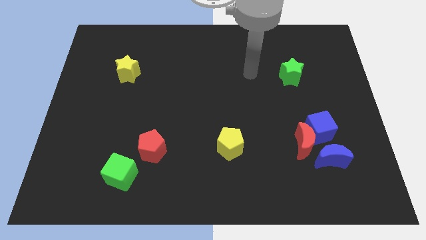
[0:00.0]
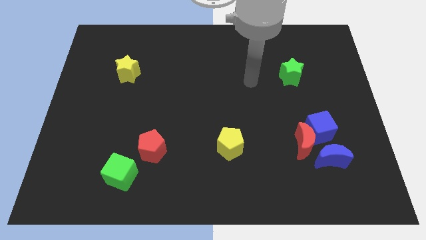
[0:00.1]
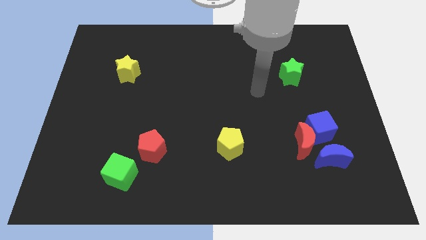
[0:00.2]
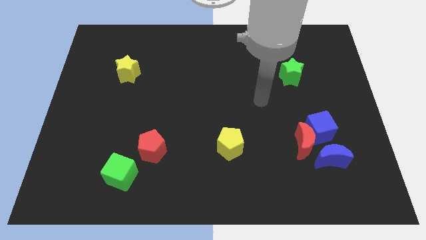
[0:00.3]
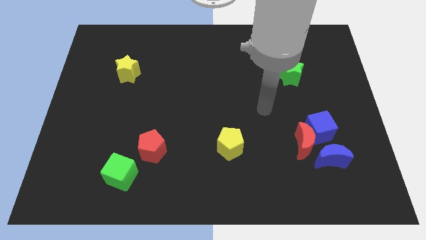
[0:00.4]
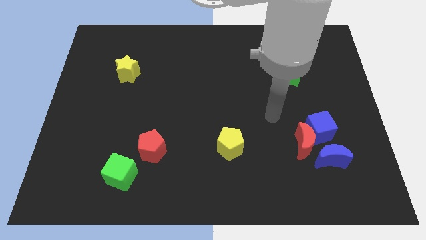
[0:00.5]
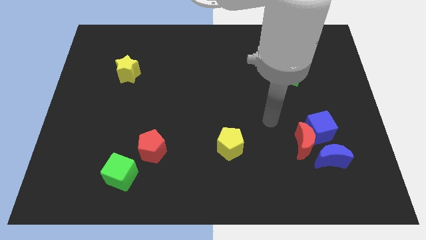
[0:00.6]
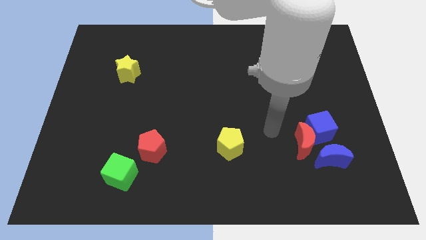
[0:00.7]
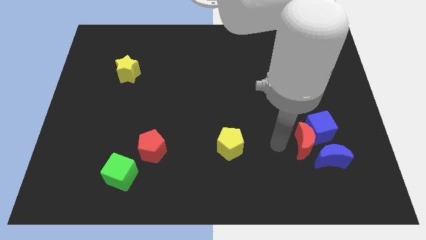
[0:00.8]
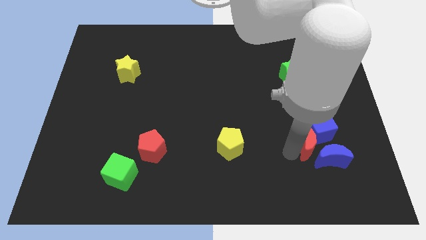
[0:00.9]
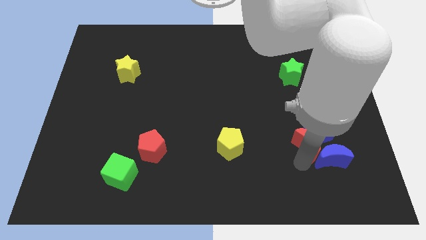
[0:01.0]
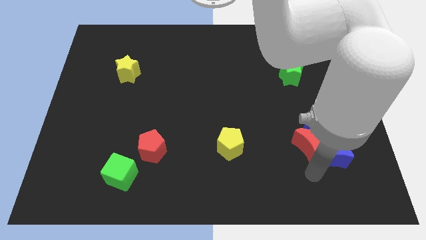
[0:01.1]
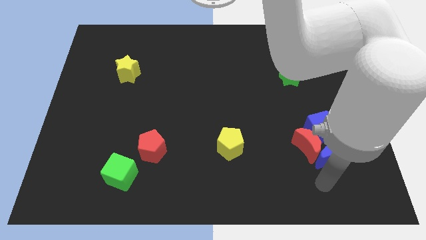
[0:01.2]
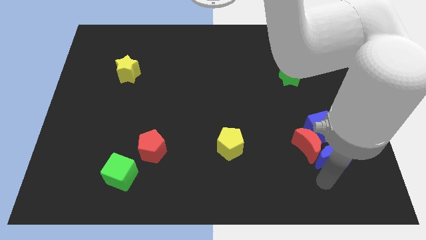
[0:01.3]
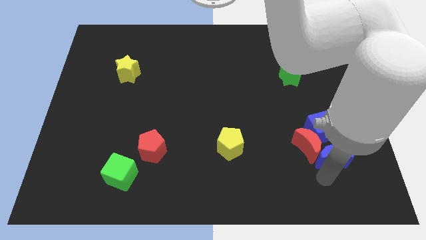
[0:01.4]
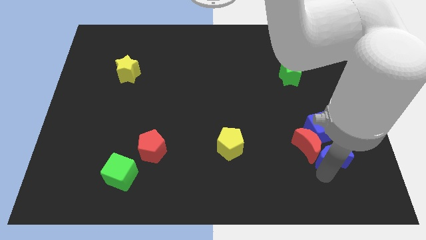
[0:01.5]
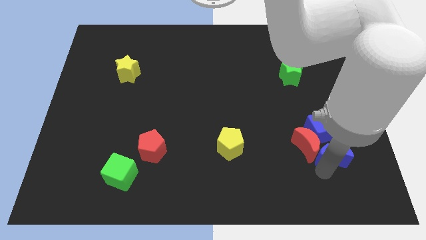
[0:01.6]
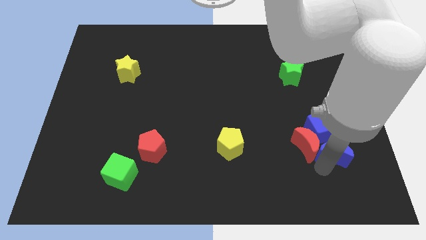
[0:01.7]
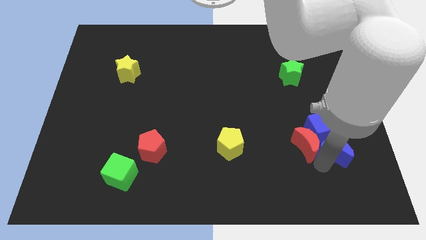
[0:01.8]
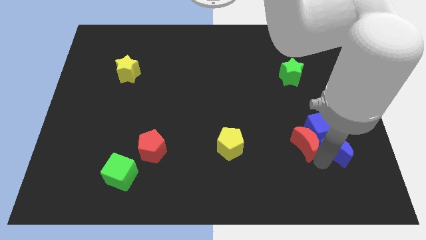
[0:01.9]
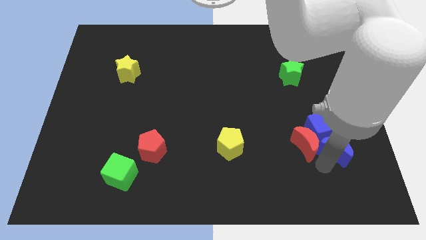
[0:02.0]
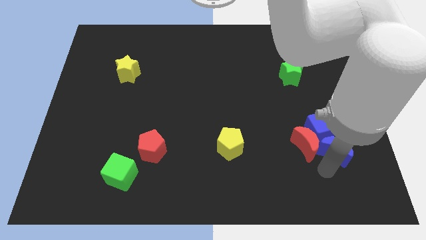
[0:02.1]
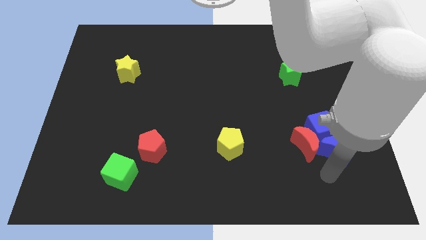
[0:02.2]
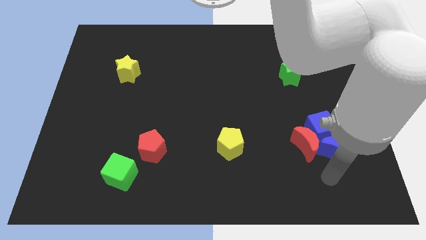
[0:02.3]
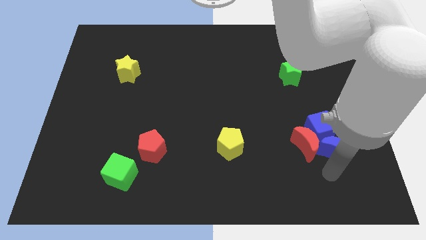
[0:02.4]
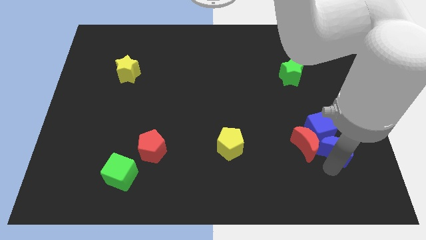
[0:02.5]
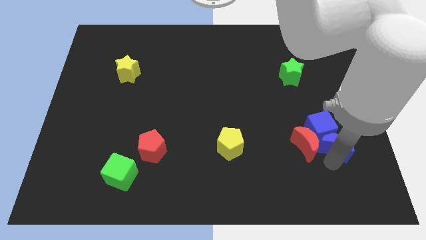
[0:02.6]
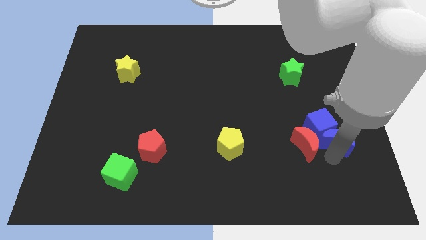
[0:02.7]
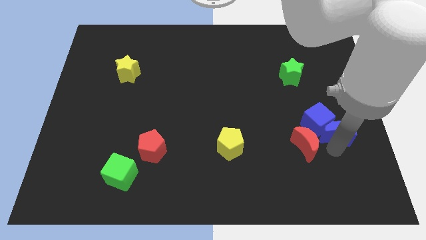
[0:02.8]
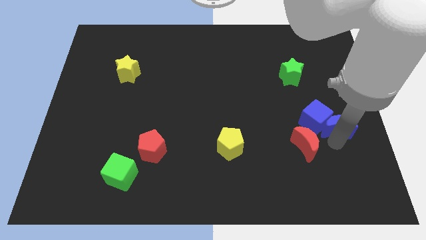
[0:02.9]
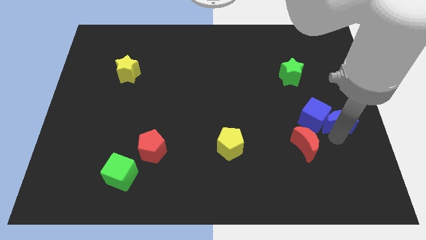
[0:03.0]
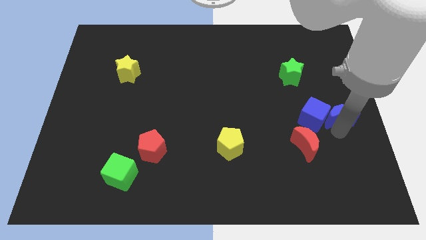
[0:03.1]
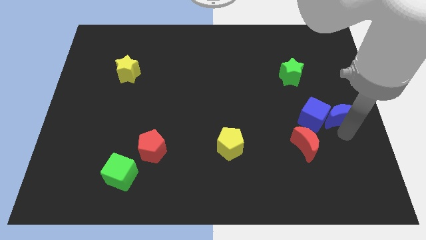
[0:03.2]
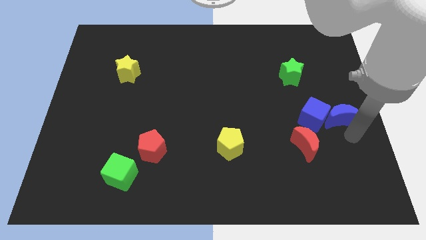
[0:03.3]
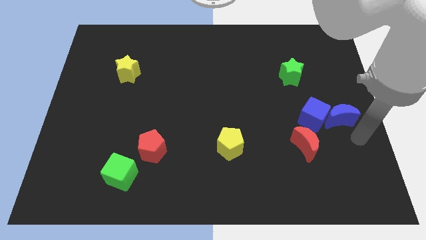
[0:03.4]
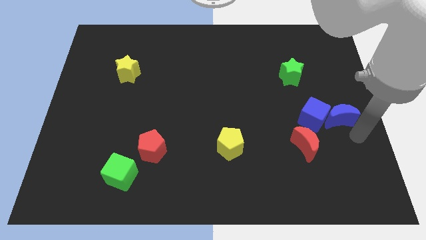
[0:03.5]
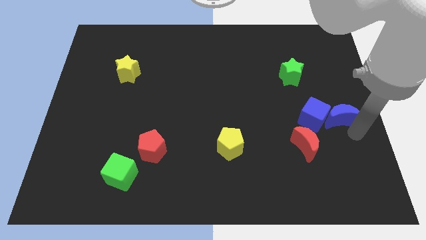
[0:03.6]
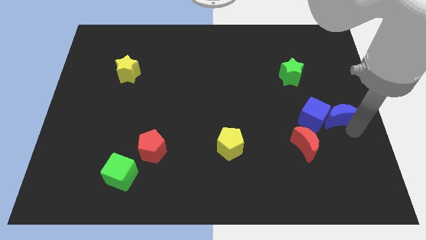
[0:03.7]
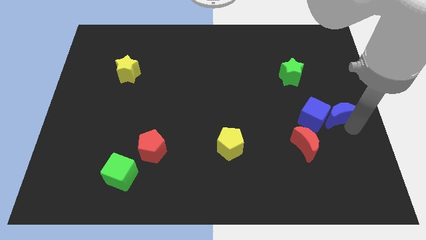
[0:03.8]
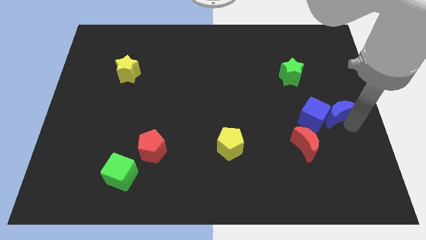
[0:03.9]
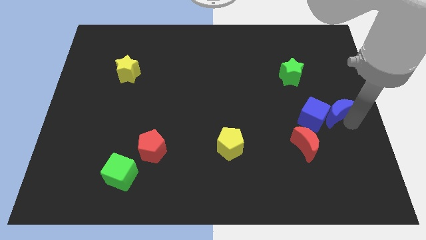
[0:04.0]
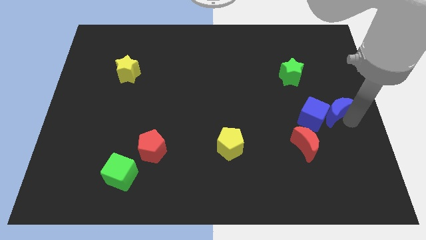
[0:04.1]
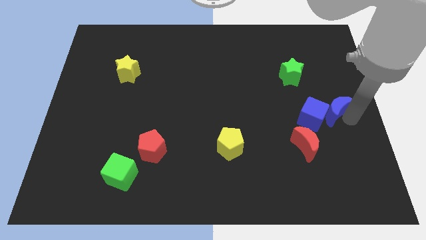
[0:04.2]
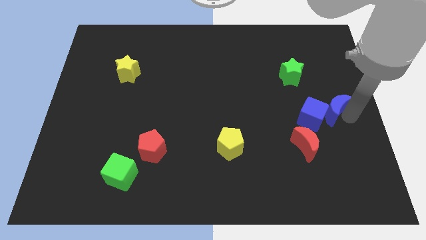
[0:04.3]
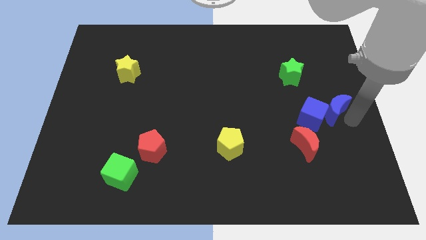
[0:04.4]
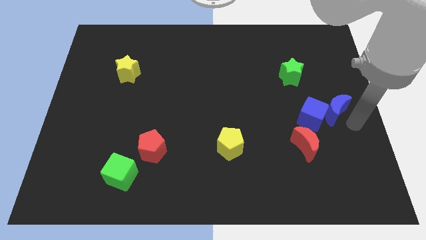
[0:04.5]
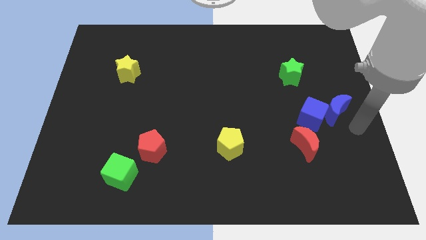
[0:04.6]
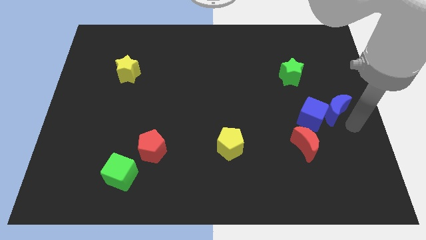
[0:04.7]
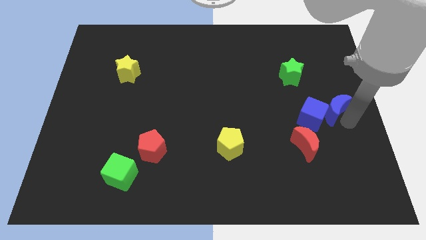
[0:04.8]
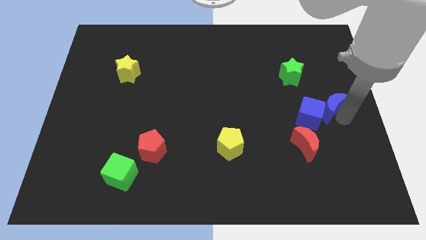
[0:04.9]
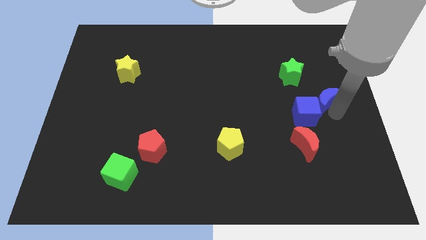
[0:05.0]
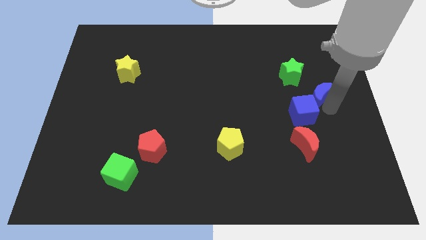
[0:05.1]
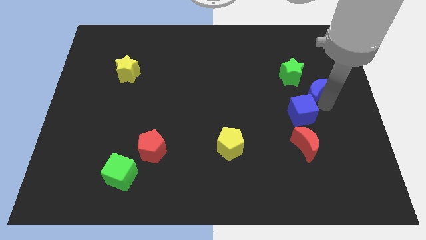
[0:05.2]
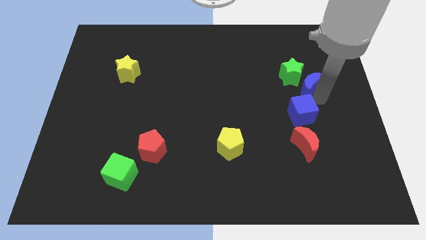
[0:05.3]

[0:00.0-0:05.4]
slide the blue moon close to the green star

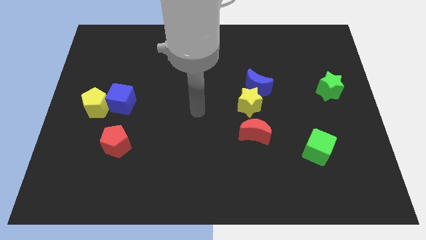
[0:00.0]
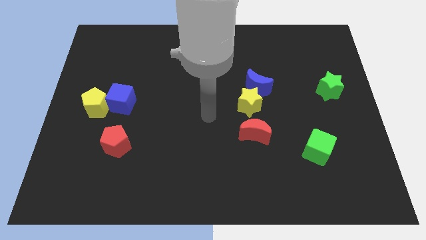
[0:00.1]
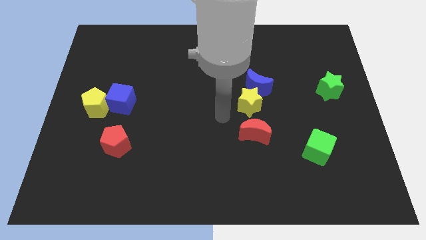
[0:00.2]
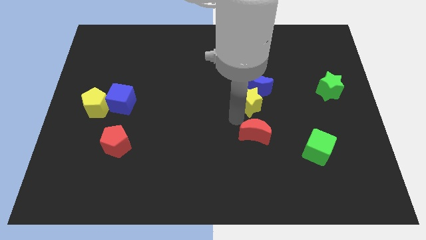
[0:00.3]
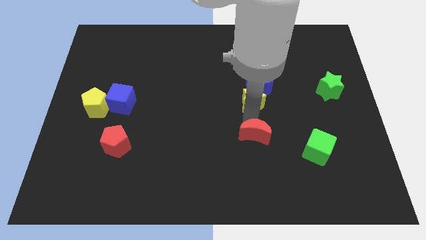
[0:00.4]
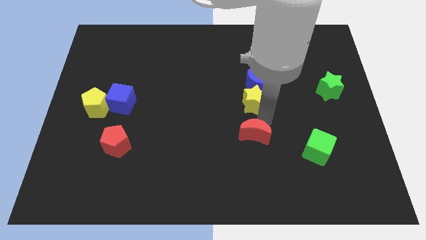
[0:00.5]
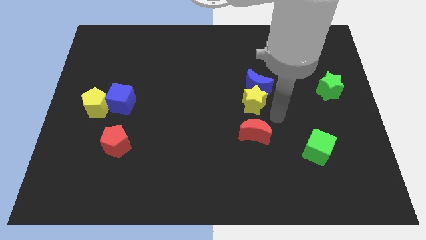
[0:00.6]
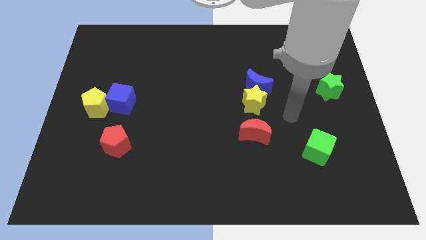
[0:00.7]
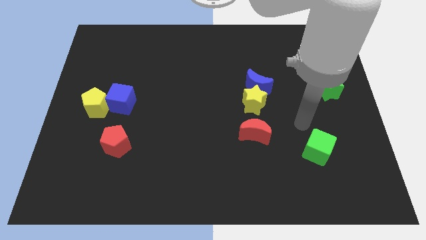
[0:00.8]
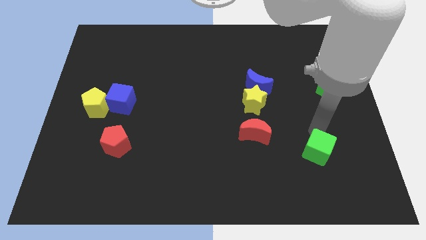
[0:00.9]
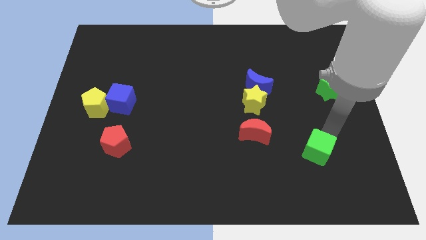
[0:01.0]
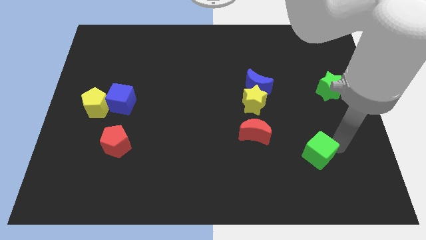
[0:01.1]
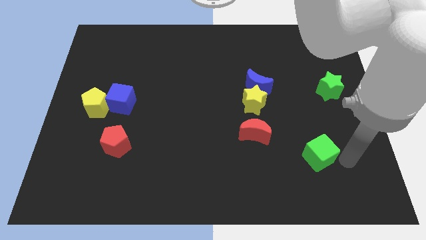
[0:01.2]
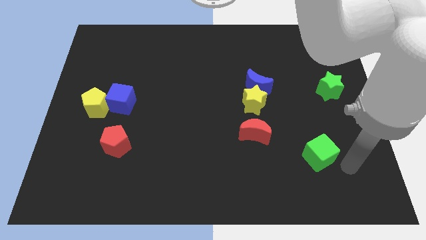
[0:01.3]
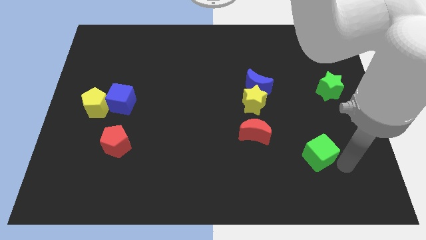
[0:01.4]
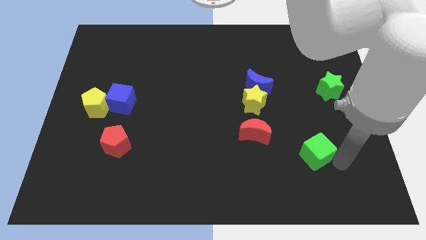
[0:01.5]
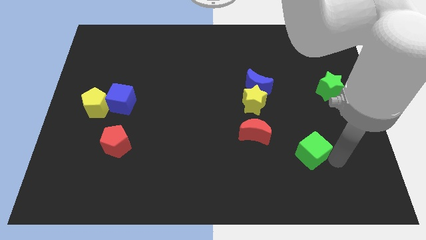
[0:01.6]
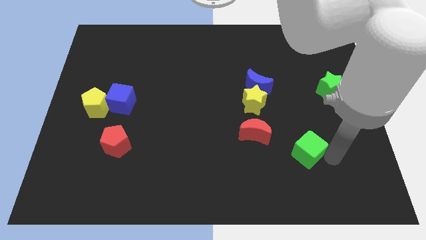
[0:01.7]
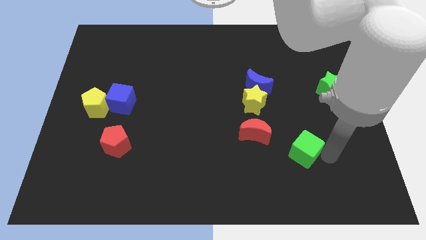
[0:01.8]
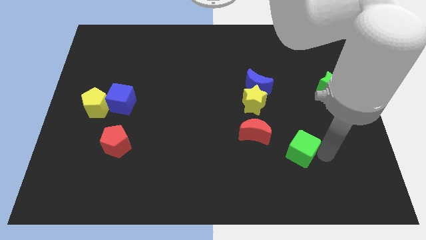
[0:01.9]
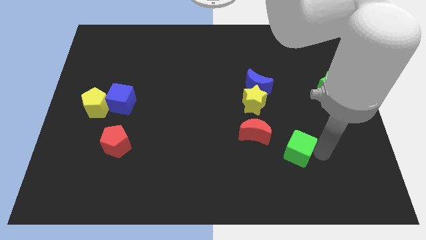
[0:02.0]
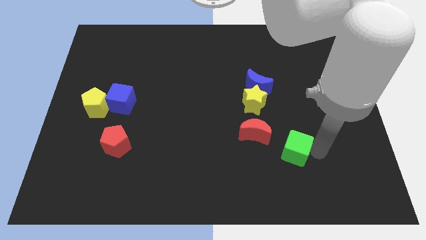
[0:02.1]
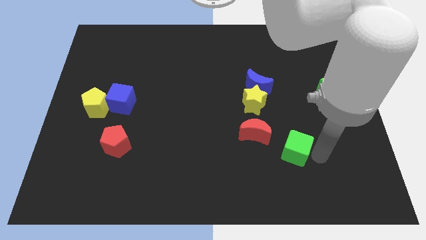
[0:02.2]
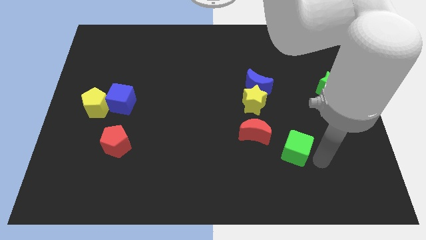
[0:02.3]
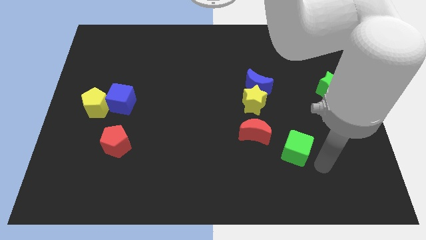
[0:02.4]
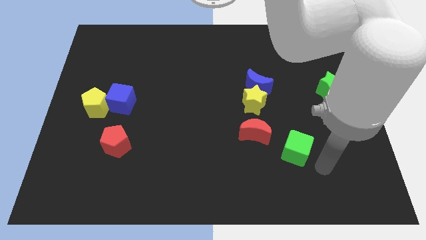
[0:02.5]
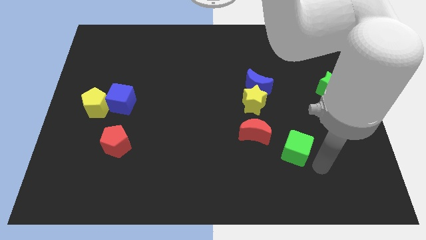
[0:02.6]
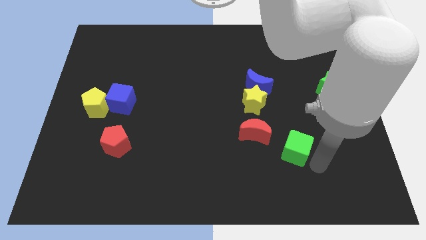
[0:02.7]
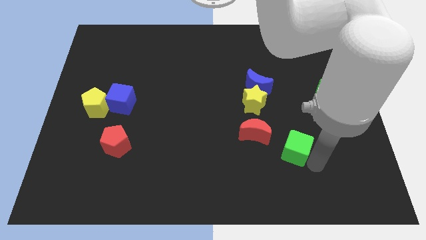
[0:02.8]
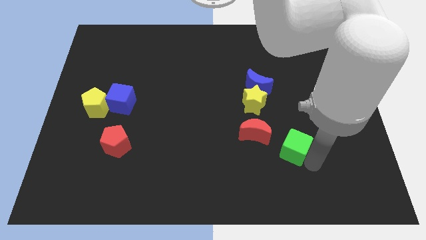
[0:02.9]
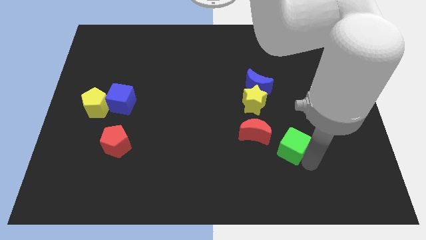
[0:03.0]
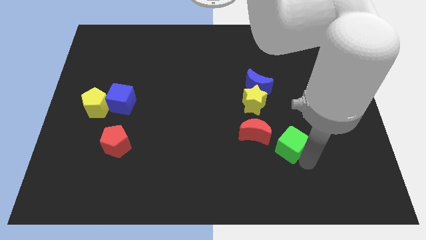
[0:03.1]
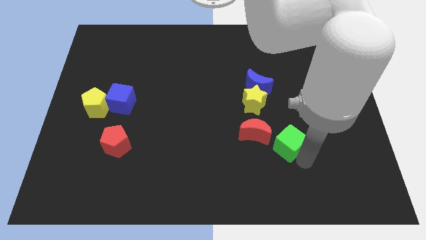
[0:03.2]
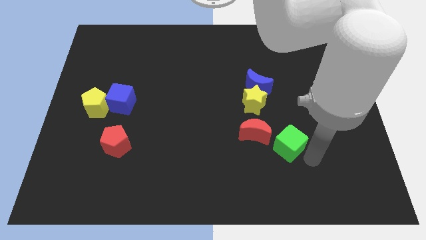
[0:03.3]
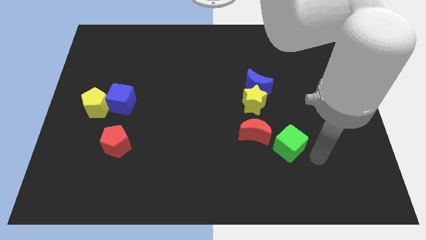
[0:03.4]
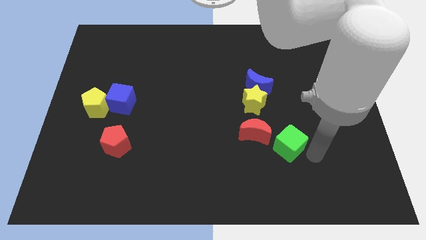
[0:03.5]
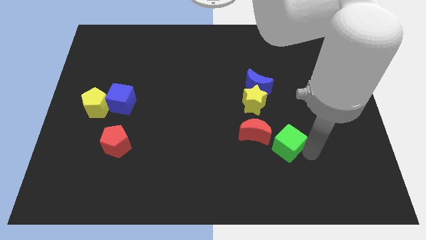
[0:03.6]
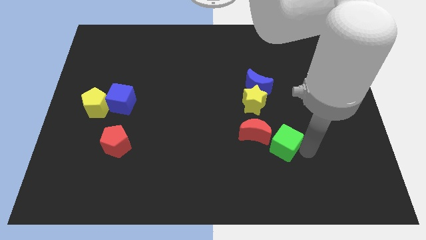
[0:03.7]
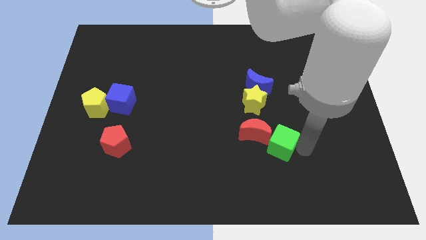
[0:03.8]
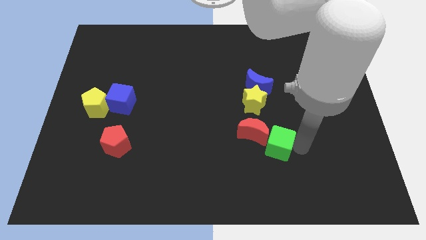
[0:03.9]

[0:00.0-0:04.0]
slide the green cube close to the red moon
